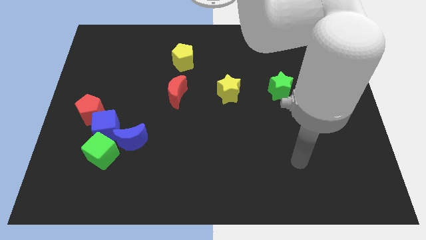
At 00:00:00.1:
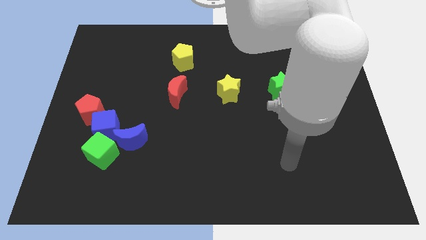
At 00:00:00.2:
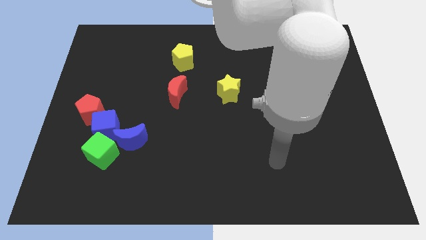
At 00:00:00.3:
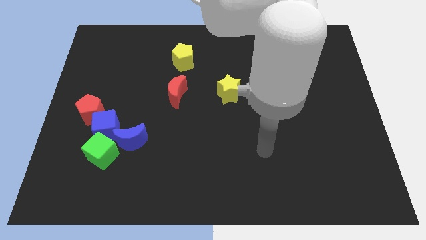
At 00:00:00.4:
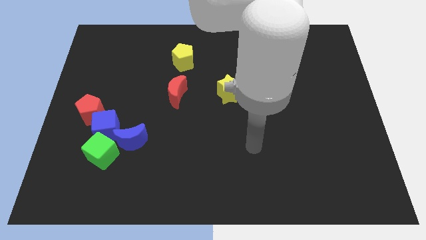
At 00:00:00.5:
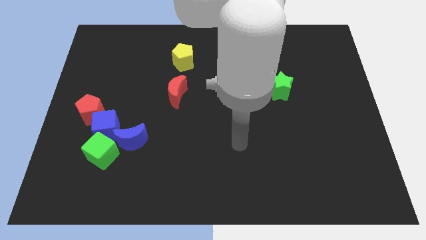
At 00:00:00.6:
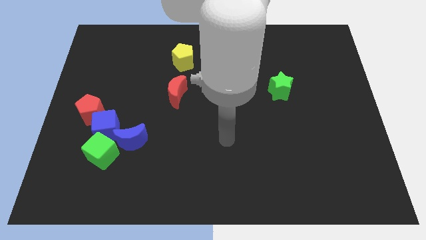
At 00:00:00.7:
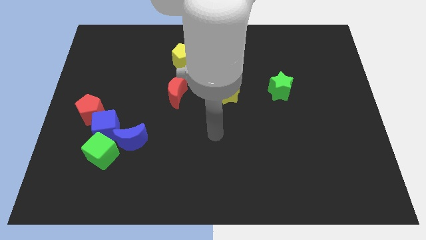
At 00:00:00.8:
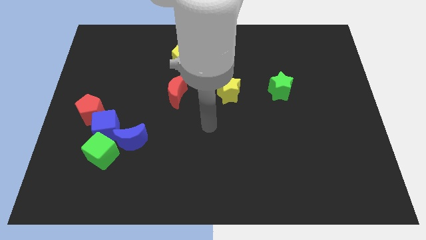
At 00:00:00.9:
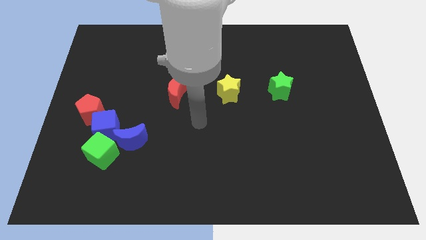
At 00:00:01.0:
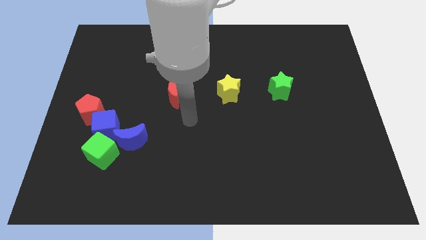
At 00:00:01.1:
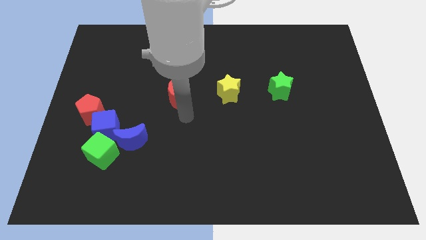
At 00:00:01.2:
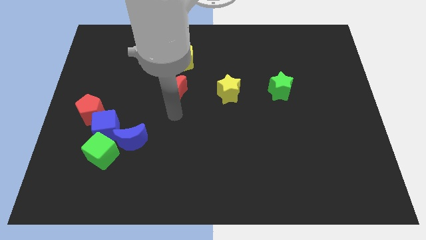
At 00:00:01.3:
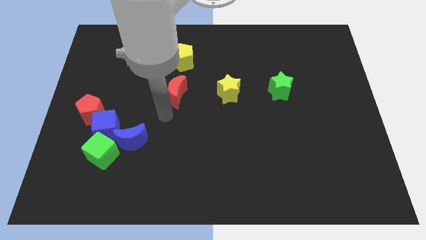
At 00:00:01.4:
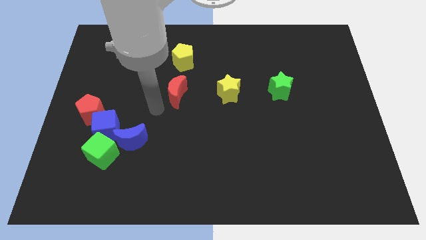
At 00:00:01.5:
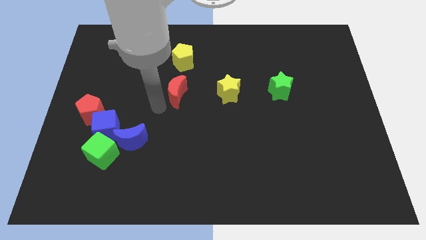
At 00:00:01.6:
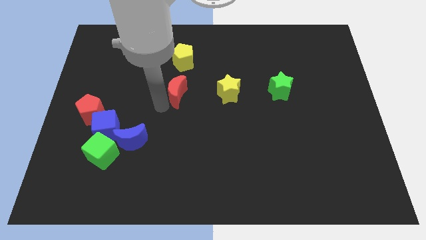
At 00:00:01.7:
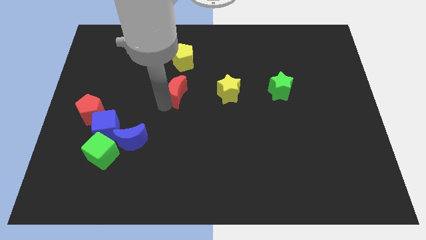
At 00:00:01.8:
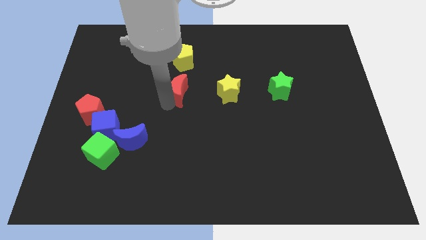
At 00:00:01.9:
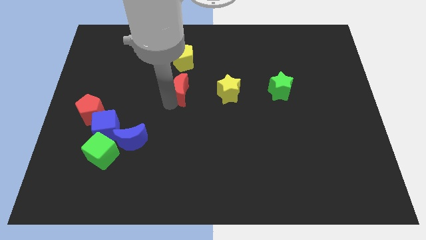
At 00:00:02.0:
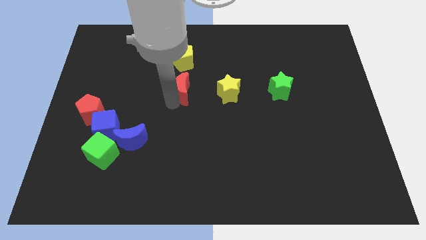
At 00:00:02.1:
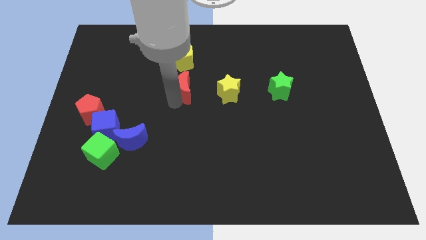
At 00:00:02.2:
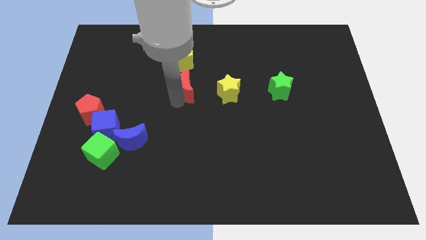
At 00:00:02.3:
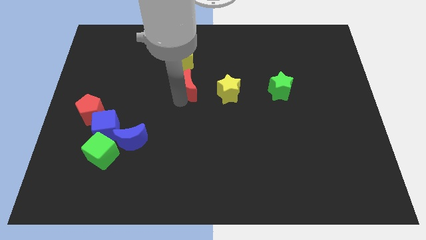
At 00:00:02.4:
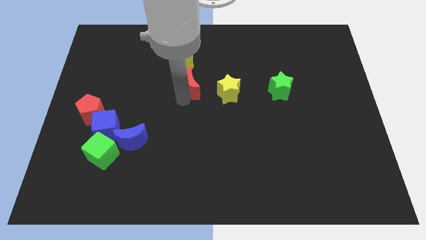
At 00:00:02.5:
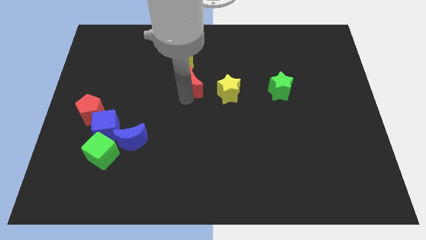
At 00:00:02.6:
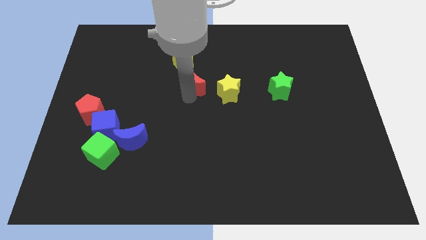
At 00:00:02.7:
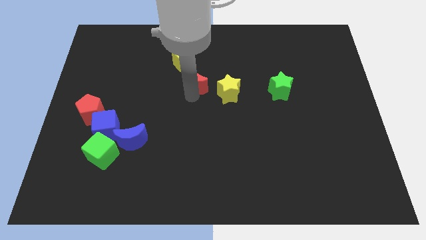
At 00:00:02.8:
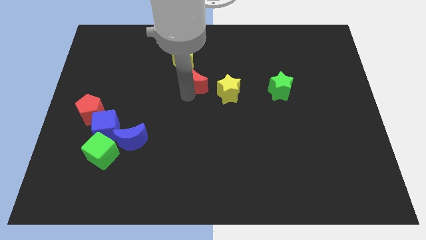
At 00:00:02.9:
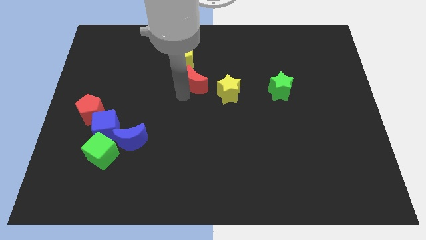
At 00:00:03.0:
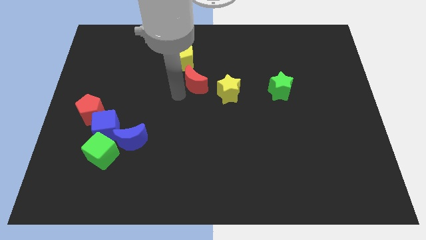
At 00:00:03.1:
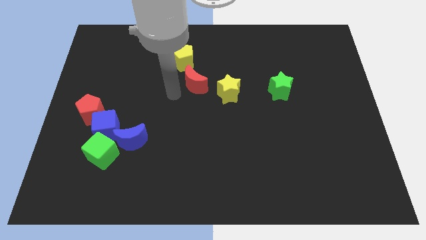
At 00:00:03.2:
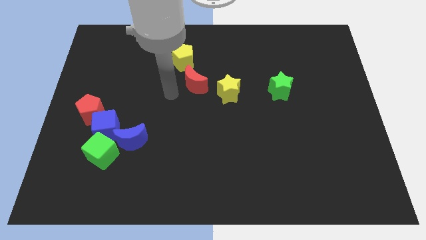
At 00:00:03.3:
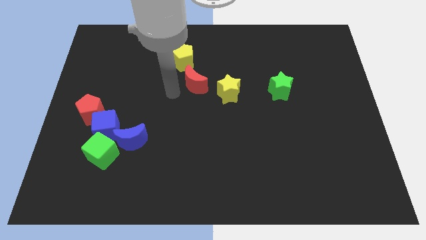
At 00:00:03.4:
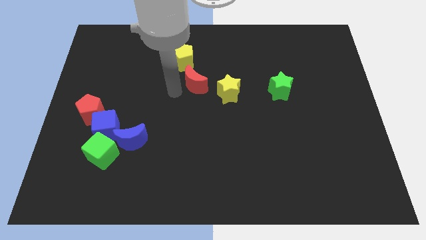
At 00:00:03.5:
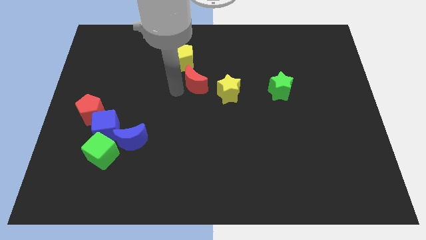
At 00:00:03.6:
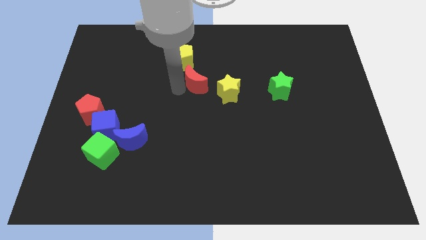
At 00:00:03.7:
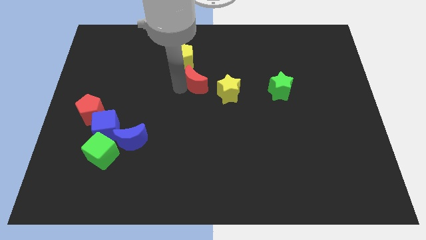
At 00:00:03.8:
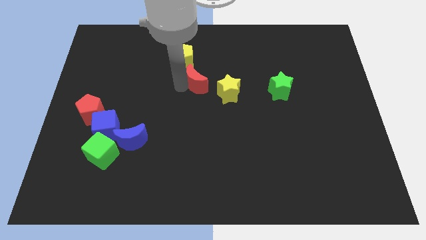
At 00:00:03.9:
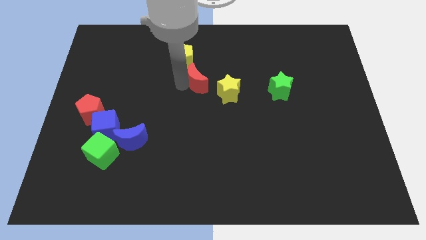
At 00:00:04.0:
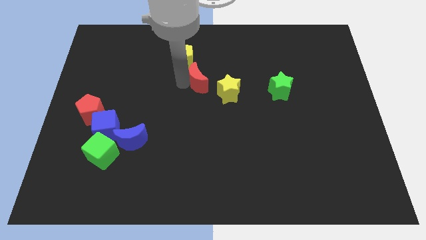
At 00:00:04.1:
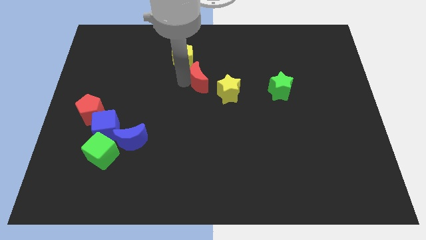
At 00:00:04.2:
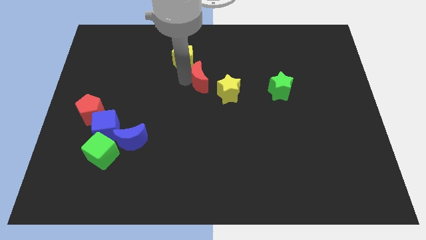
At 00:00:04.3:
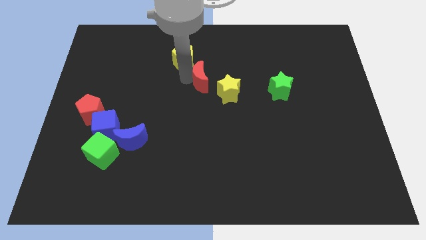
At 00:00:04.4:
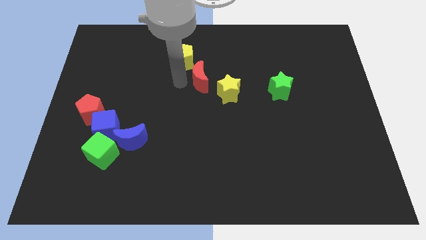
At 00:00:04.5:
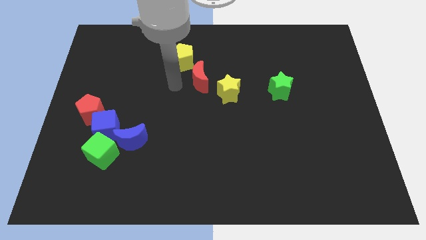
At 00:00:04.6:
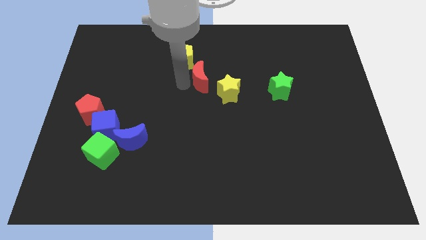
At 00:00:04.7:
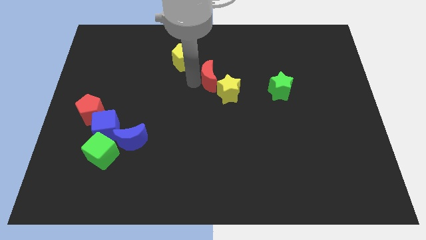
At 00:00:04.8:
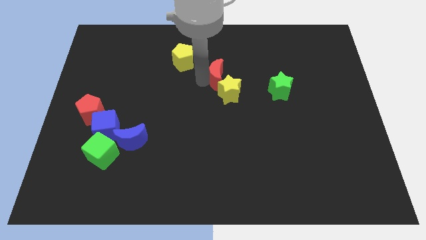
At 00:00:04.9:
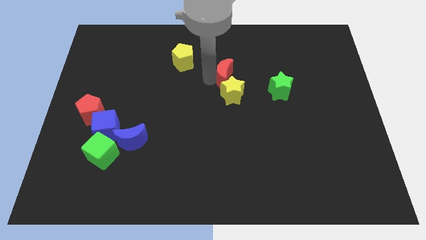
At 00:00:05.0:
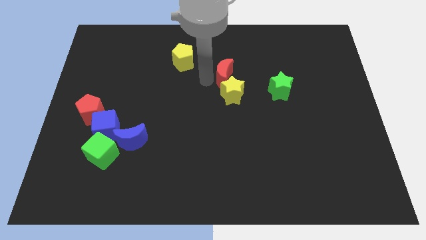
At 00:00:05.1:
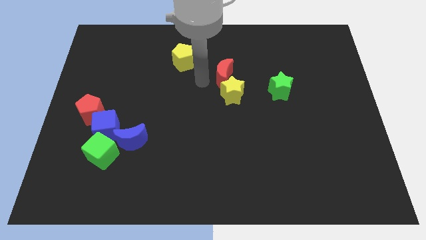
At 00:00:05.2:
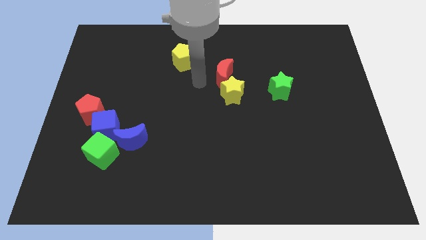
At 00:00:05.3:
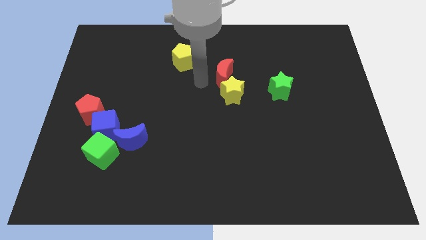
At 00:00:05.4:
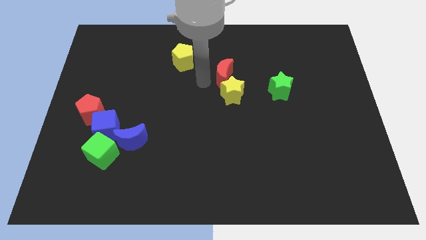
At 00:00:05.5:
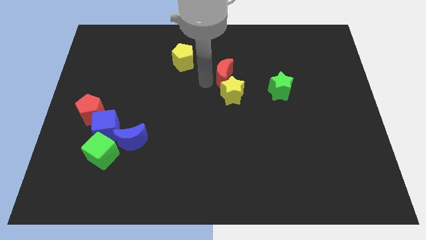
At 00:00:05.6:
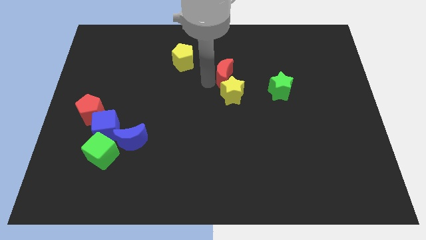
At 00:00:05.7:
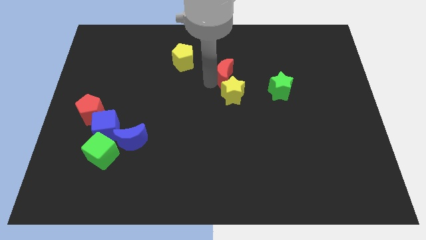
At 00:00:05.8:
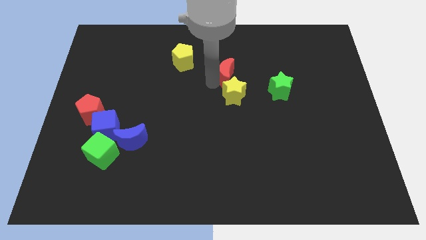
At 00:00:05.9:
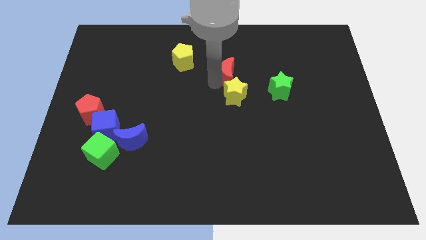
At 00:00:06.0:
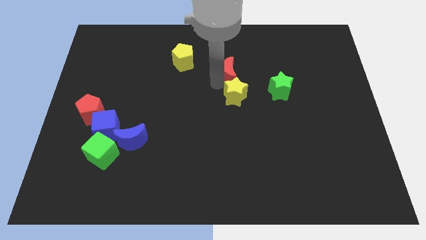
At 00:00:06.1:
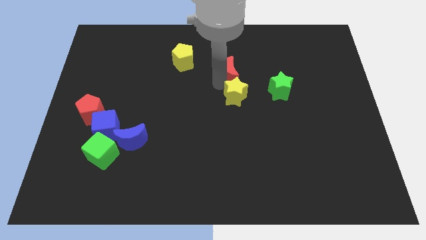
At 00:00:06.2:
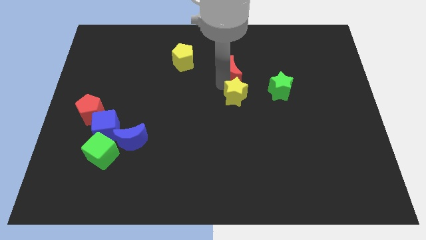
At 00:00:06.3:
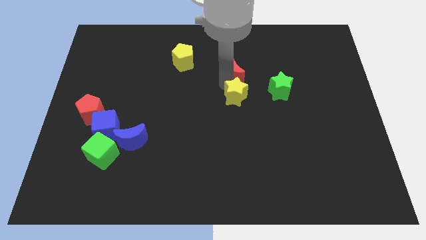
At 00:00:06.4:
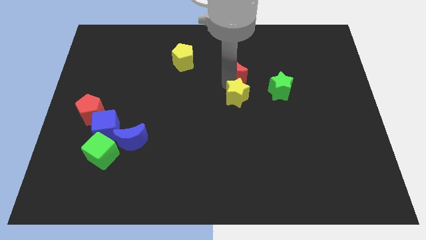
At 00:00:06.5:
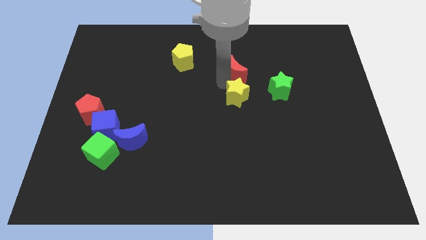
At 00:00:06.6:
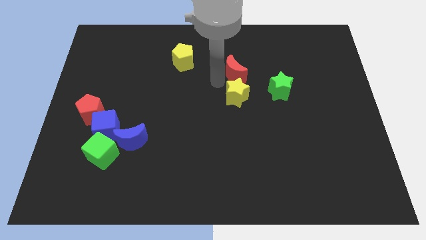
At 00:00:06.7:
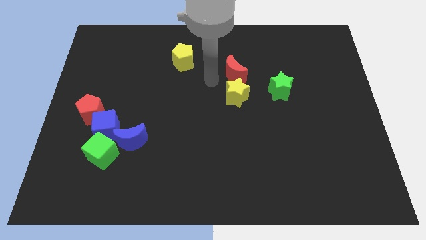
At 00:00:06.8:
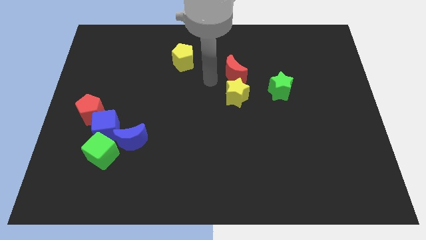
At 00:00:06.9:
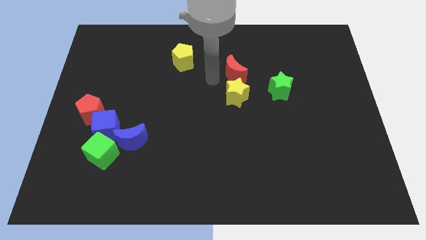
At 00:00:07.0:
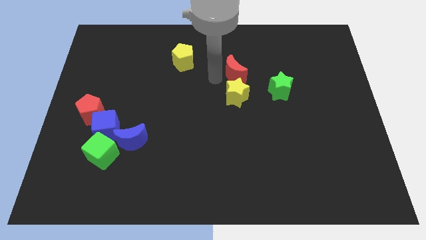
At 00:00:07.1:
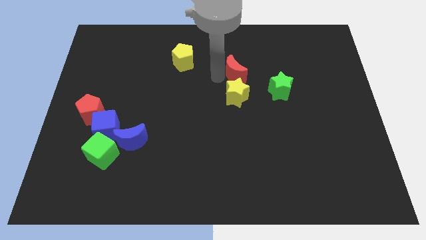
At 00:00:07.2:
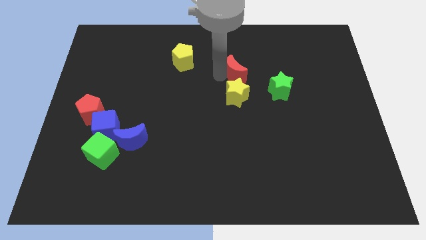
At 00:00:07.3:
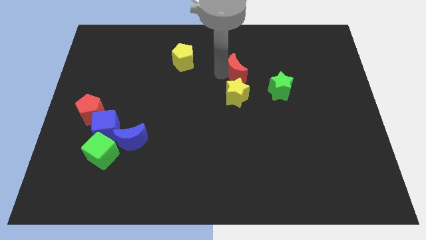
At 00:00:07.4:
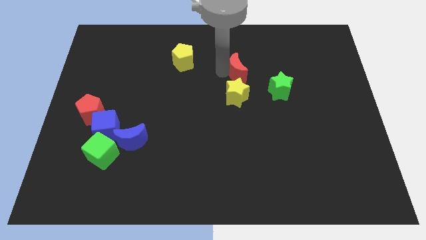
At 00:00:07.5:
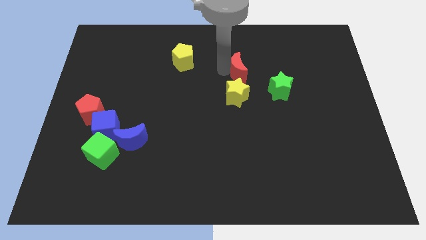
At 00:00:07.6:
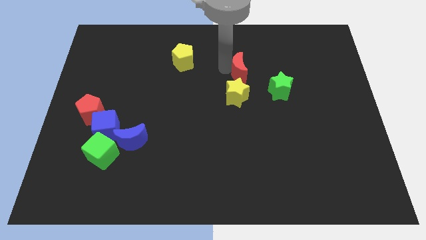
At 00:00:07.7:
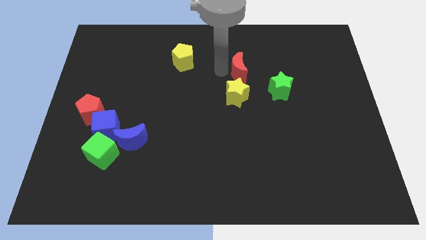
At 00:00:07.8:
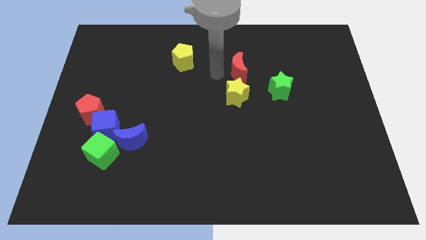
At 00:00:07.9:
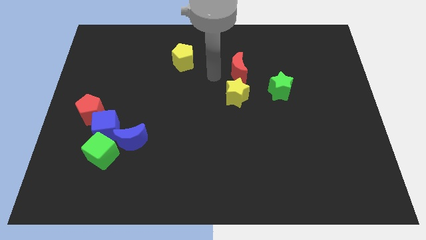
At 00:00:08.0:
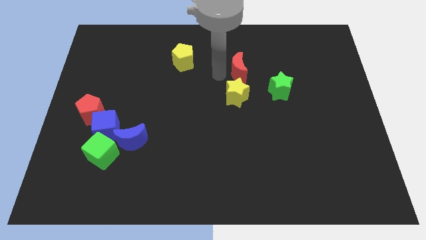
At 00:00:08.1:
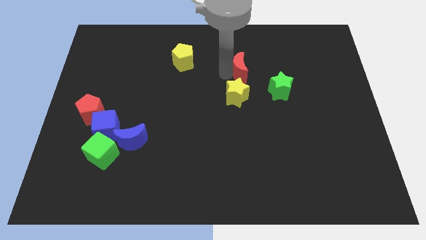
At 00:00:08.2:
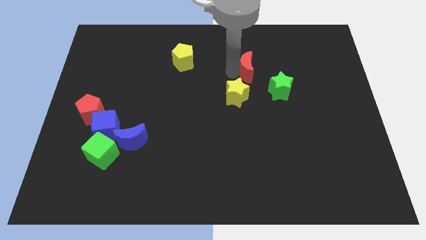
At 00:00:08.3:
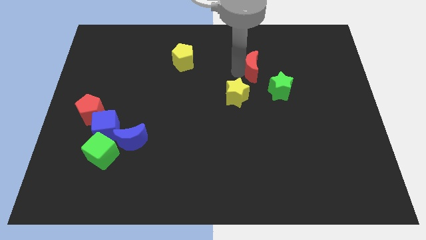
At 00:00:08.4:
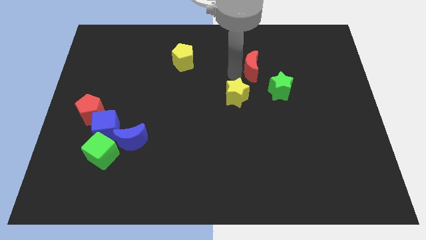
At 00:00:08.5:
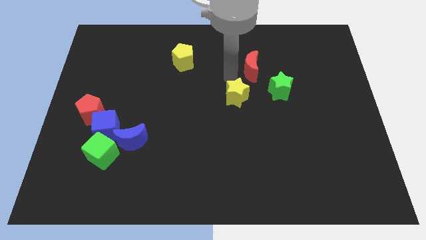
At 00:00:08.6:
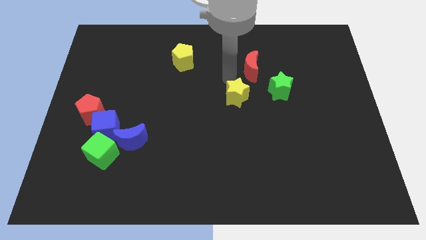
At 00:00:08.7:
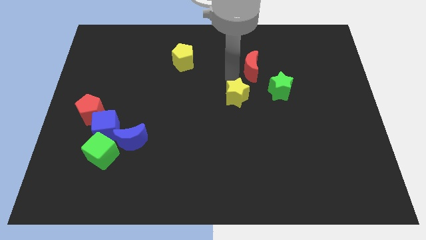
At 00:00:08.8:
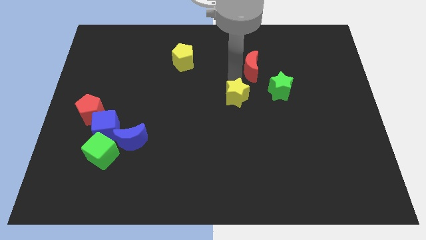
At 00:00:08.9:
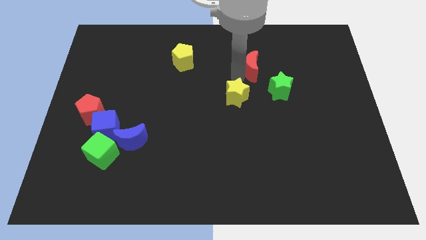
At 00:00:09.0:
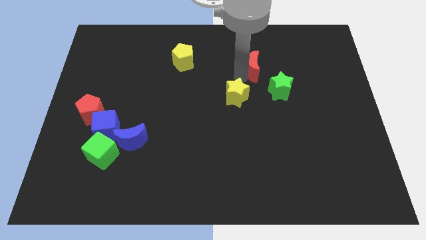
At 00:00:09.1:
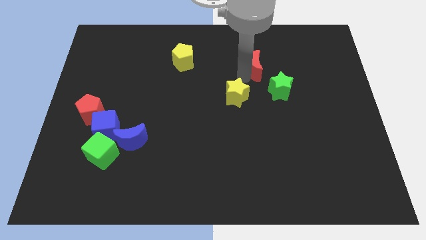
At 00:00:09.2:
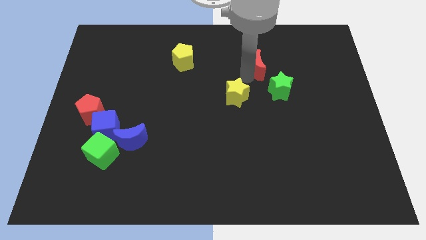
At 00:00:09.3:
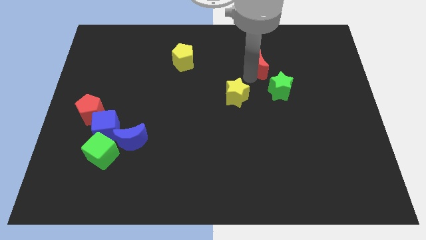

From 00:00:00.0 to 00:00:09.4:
move the red moon to the top of the green star
